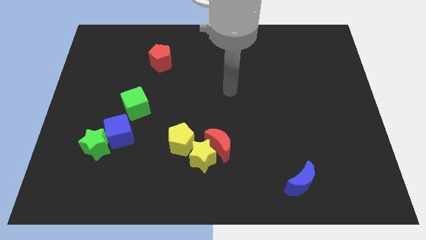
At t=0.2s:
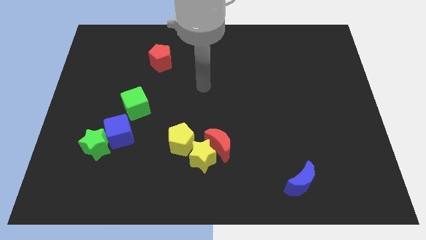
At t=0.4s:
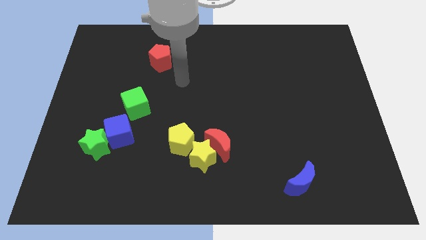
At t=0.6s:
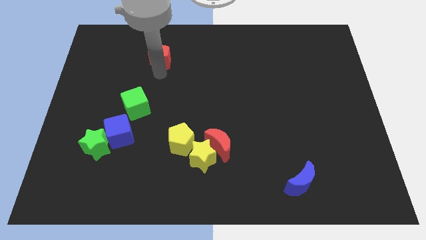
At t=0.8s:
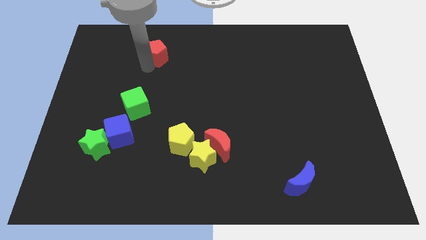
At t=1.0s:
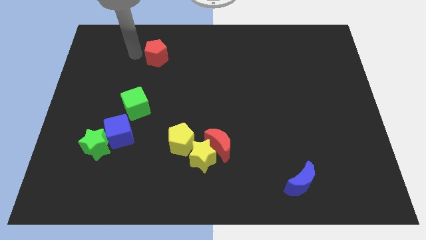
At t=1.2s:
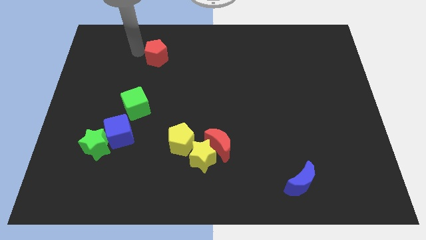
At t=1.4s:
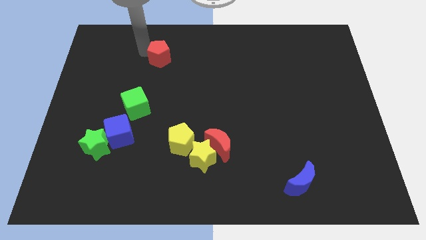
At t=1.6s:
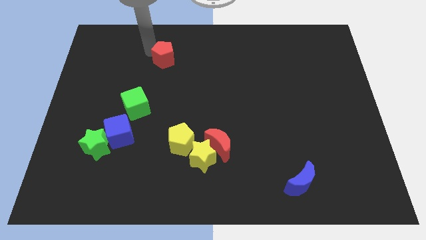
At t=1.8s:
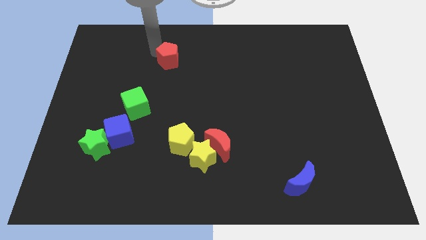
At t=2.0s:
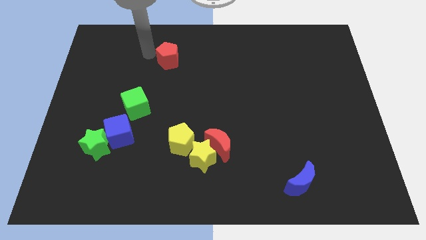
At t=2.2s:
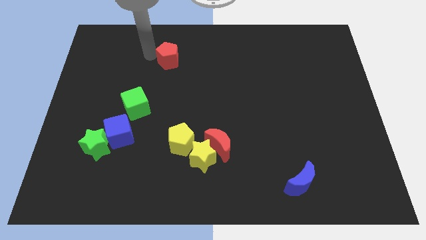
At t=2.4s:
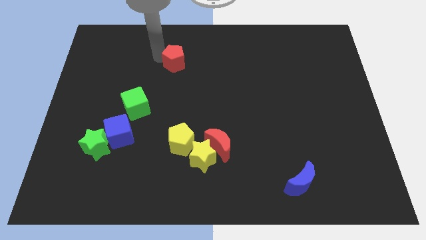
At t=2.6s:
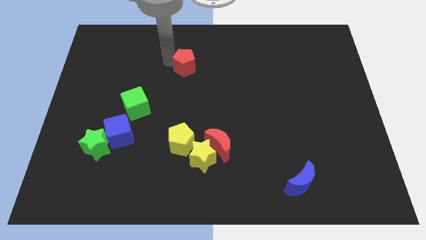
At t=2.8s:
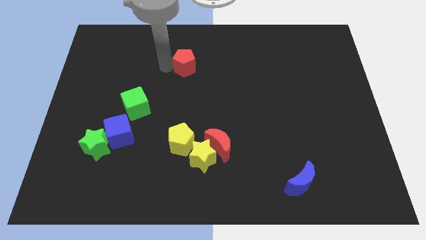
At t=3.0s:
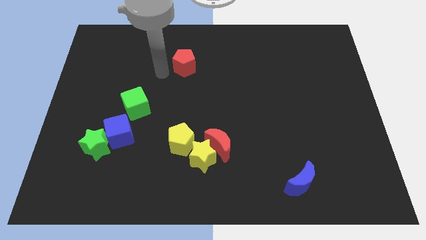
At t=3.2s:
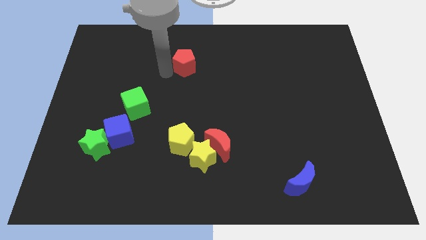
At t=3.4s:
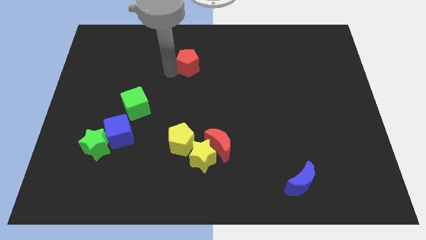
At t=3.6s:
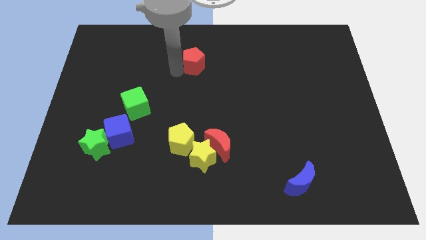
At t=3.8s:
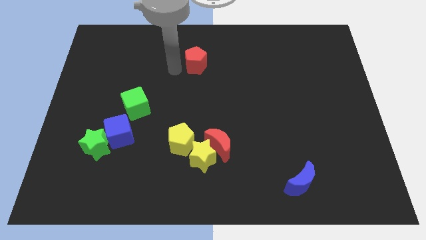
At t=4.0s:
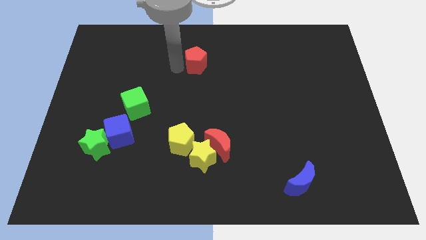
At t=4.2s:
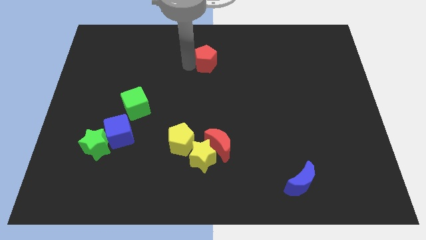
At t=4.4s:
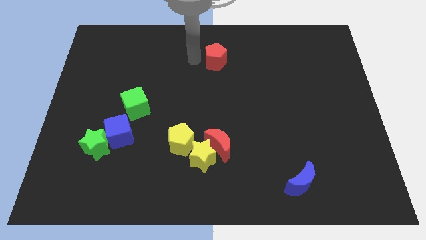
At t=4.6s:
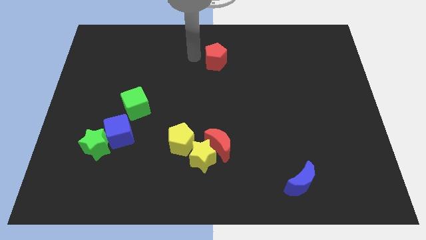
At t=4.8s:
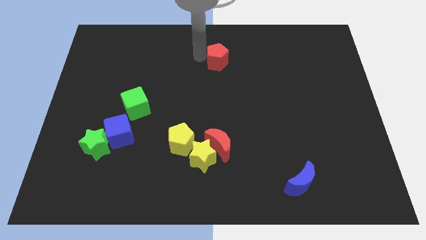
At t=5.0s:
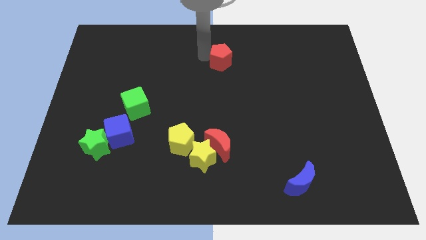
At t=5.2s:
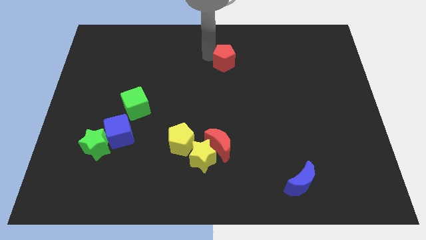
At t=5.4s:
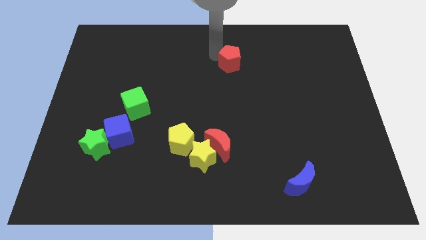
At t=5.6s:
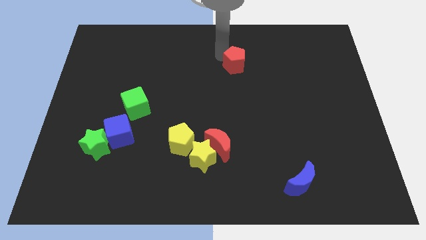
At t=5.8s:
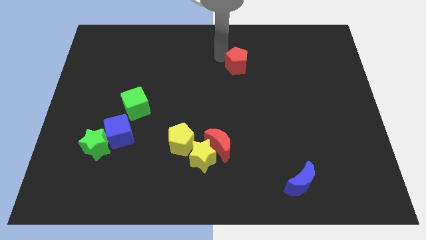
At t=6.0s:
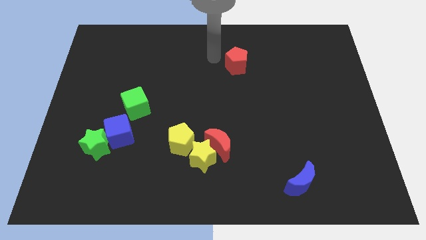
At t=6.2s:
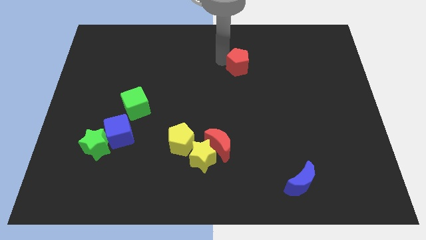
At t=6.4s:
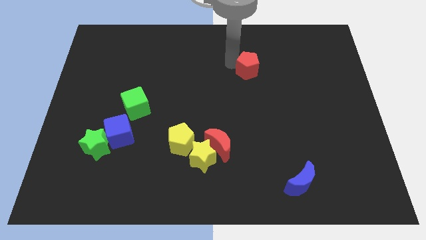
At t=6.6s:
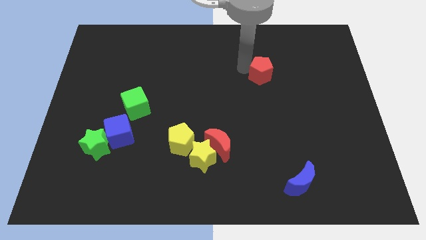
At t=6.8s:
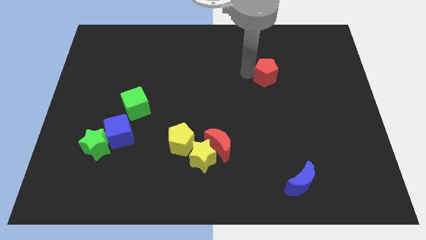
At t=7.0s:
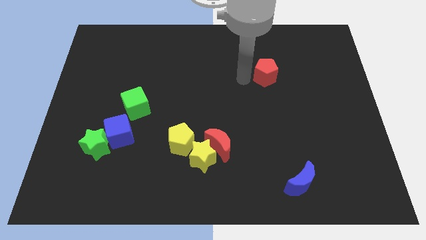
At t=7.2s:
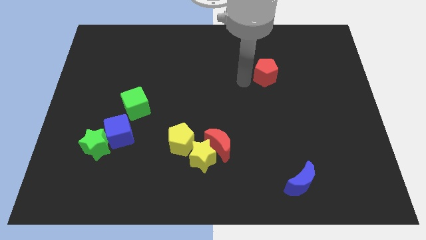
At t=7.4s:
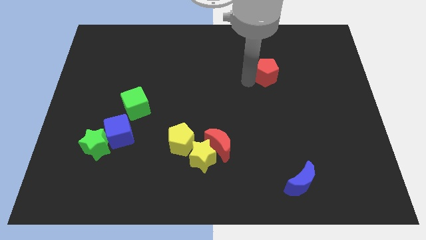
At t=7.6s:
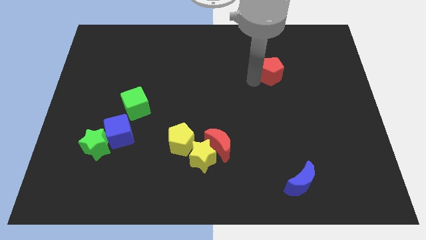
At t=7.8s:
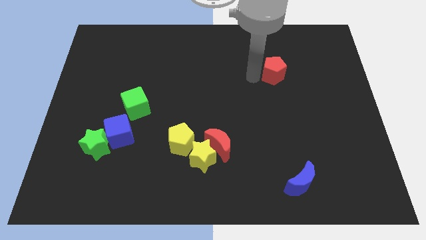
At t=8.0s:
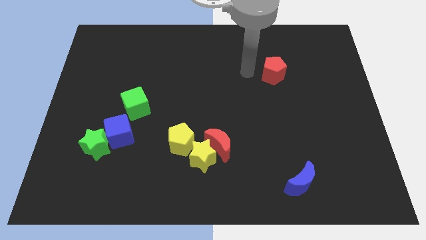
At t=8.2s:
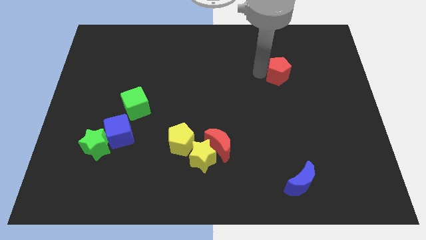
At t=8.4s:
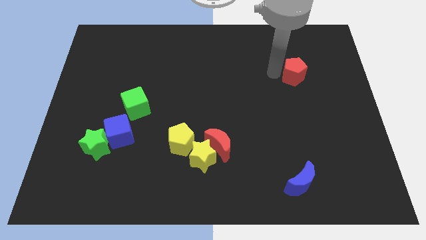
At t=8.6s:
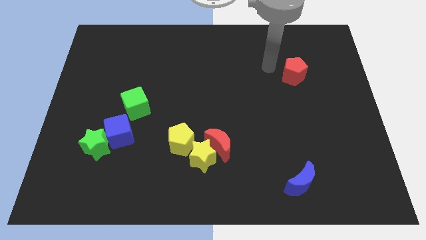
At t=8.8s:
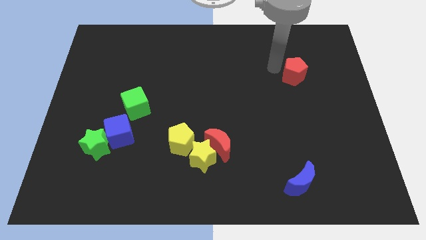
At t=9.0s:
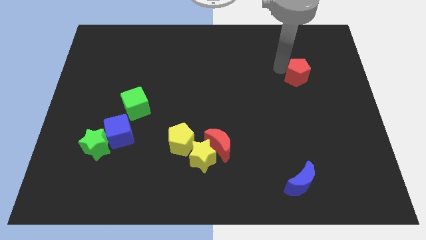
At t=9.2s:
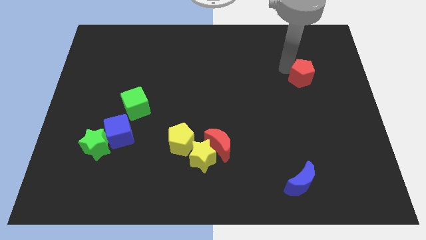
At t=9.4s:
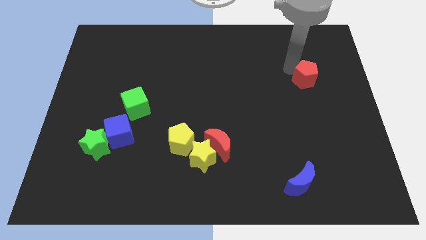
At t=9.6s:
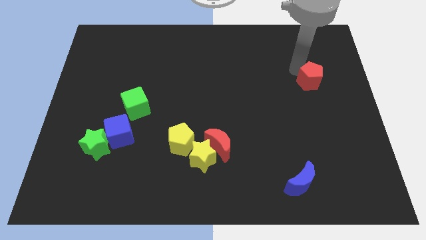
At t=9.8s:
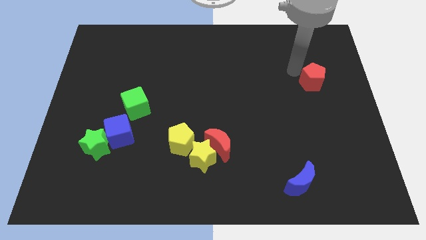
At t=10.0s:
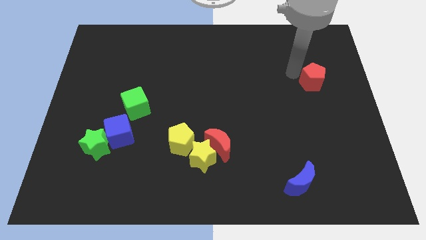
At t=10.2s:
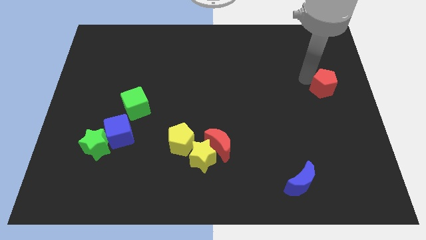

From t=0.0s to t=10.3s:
put the red pentagon to the center right

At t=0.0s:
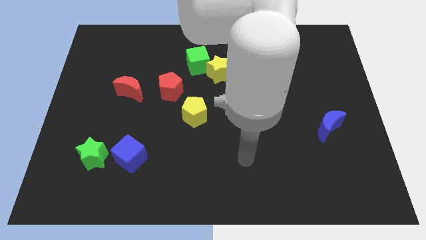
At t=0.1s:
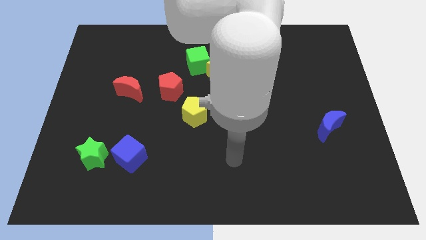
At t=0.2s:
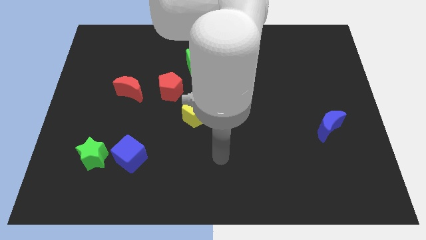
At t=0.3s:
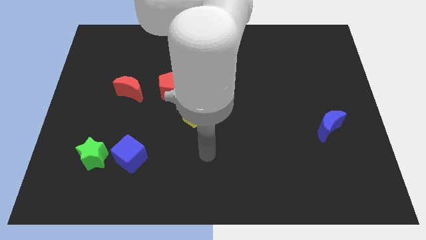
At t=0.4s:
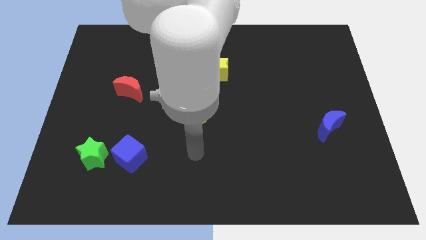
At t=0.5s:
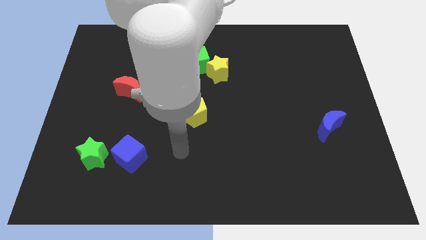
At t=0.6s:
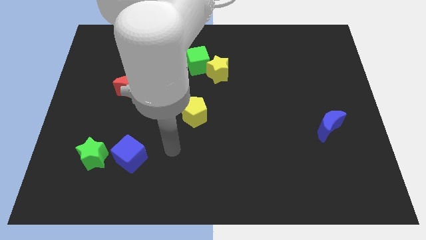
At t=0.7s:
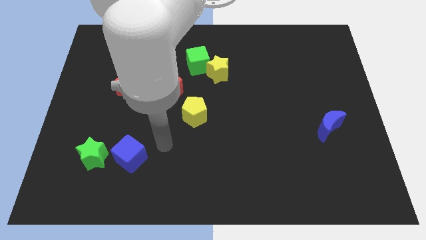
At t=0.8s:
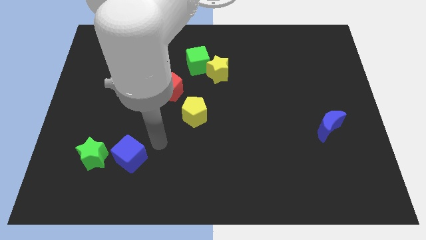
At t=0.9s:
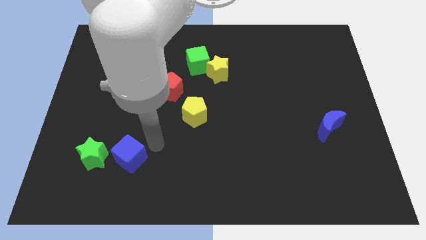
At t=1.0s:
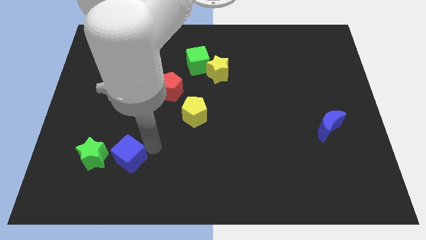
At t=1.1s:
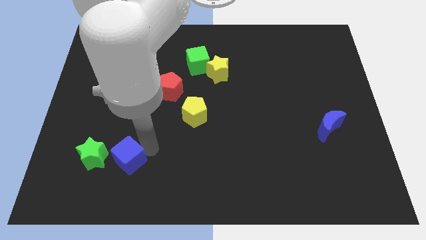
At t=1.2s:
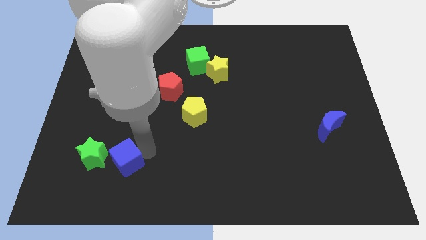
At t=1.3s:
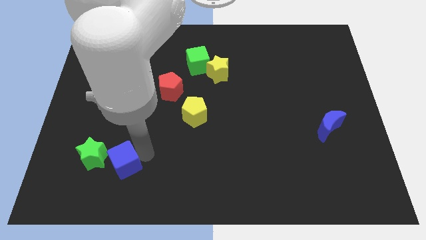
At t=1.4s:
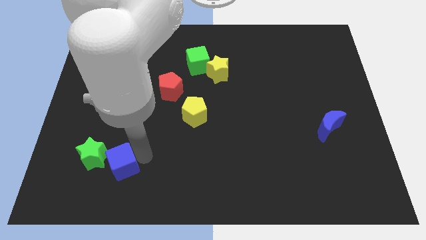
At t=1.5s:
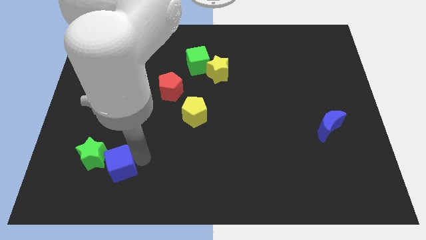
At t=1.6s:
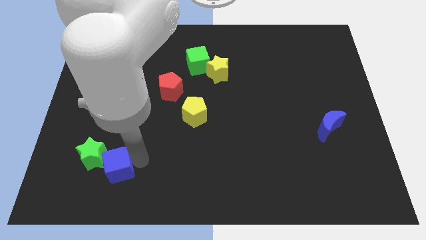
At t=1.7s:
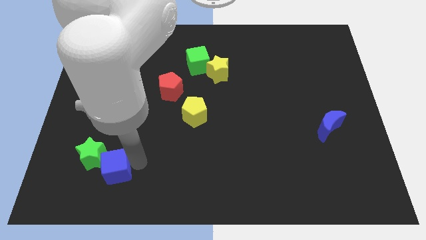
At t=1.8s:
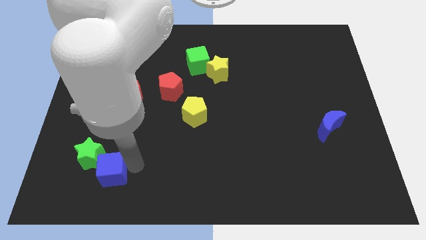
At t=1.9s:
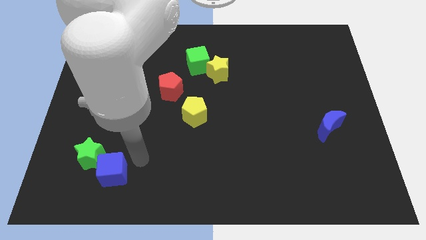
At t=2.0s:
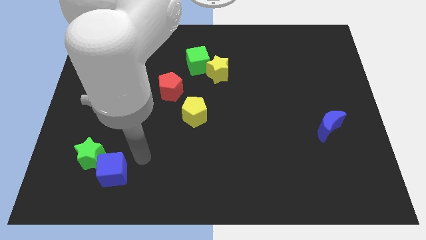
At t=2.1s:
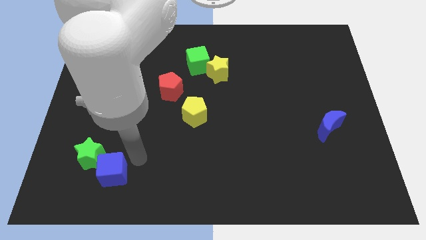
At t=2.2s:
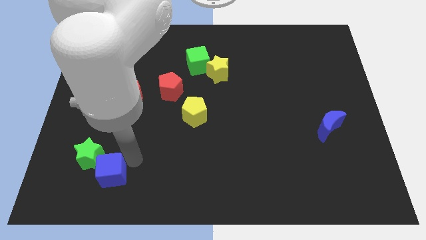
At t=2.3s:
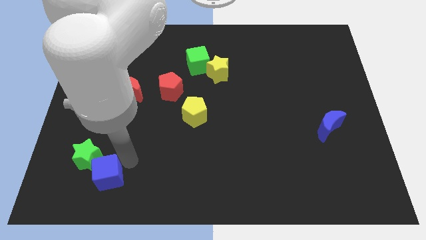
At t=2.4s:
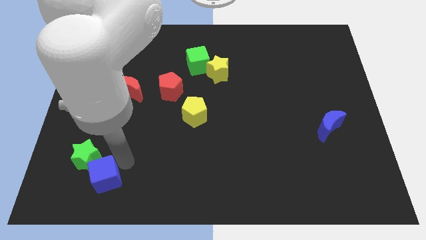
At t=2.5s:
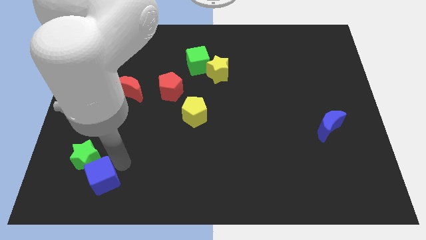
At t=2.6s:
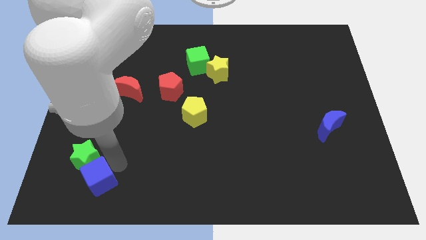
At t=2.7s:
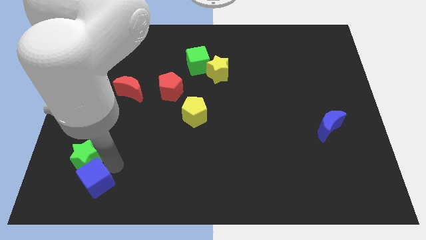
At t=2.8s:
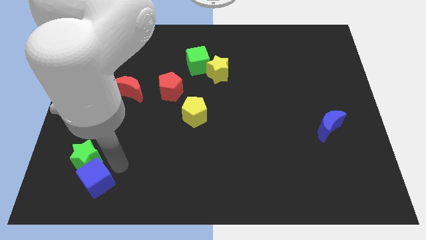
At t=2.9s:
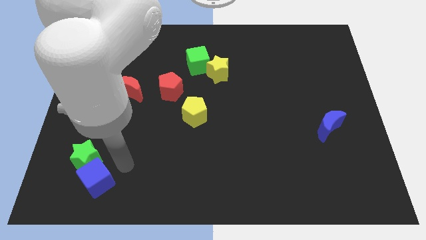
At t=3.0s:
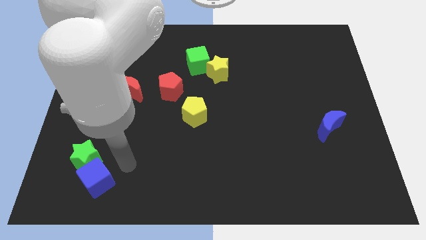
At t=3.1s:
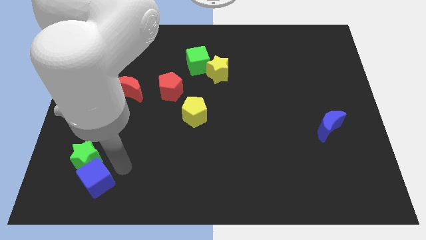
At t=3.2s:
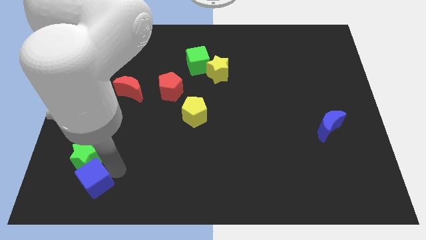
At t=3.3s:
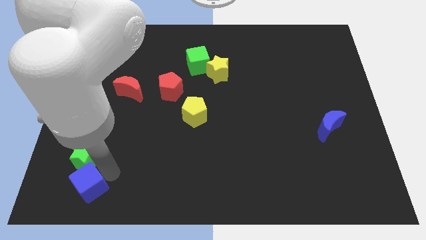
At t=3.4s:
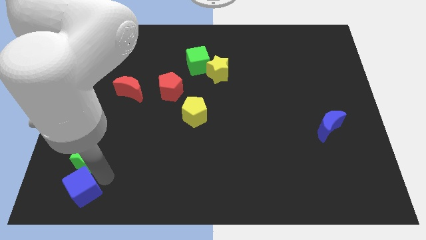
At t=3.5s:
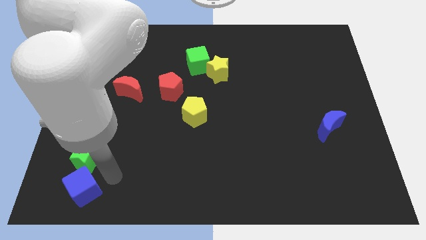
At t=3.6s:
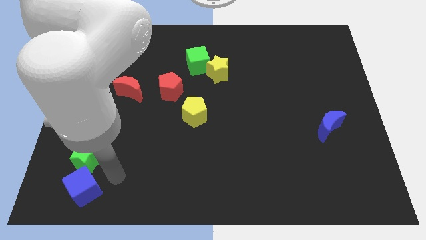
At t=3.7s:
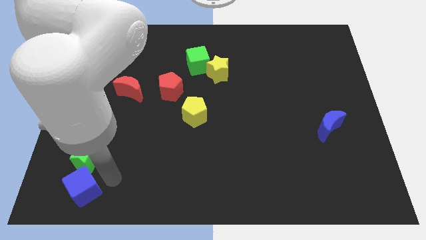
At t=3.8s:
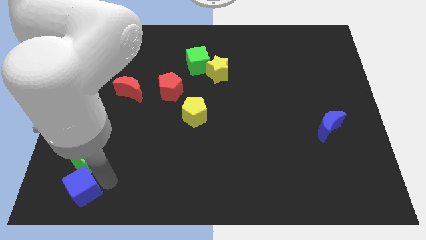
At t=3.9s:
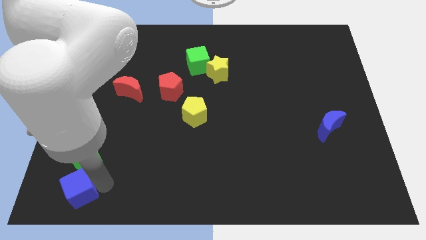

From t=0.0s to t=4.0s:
push the blue cube to the bottom left of the board
